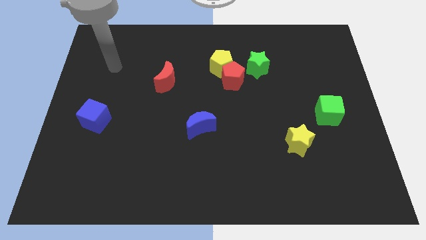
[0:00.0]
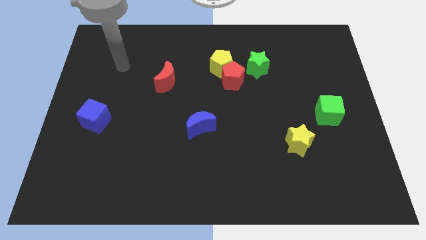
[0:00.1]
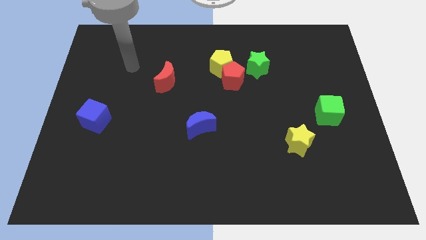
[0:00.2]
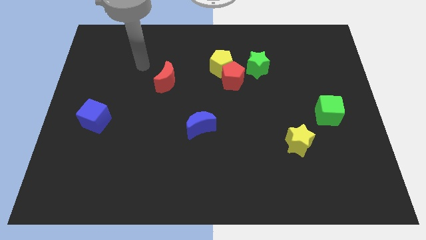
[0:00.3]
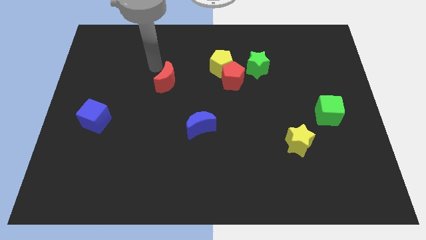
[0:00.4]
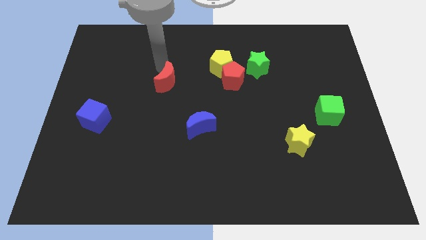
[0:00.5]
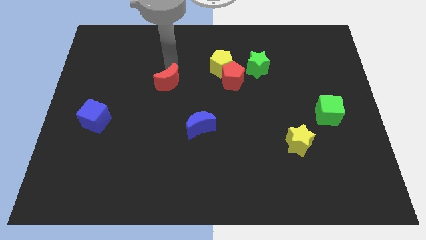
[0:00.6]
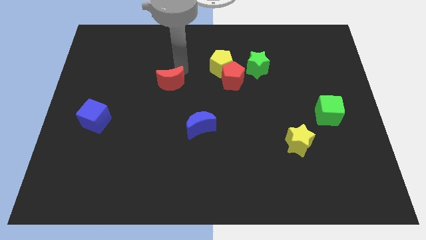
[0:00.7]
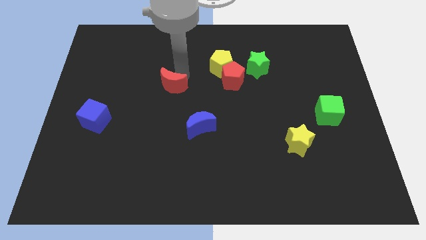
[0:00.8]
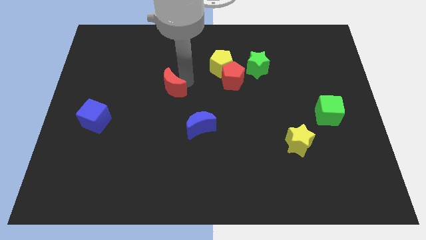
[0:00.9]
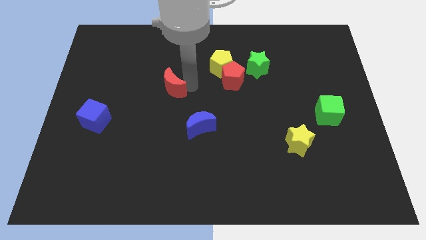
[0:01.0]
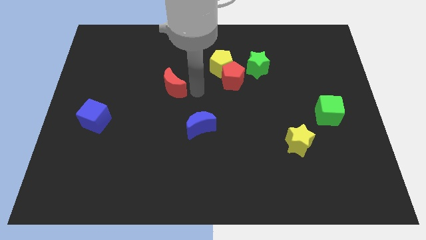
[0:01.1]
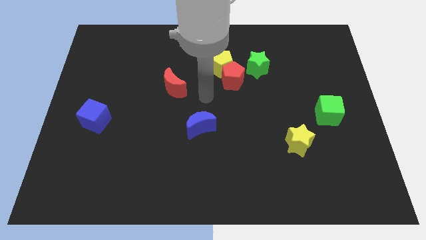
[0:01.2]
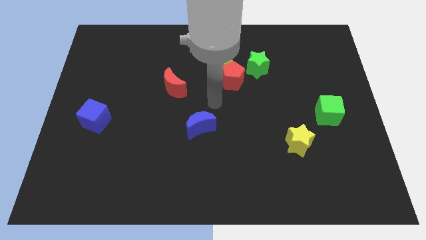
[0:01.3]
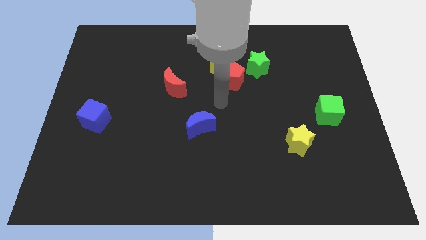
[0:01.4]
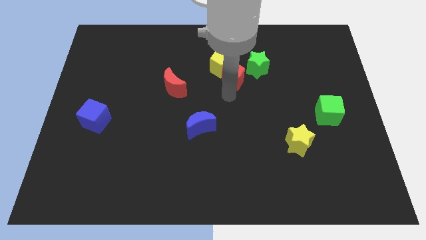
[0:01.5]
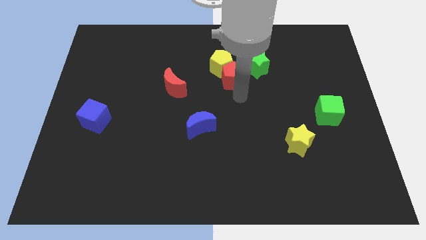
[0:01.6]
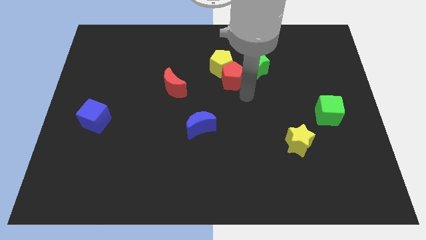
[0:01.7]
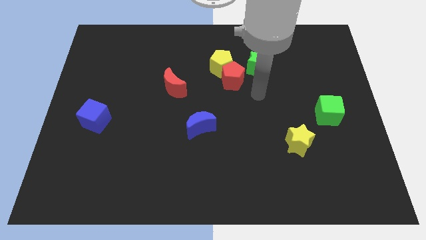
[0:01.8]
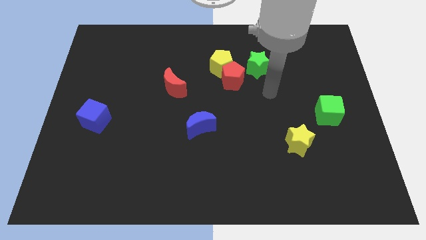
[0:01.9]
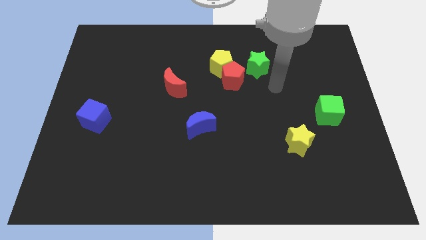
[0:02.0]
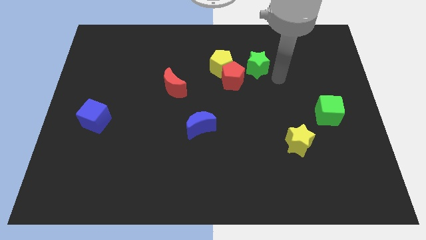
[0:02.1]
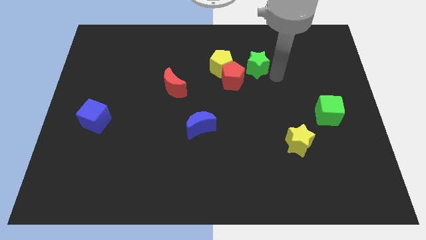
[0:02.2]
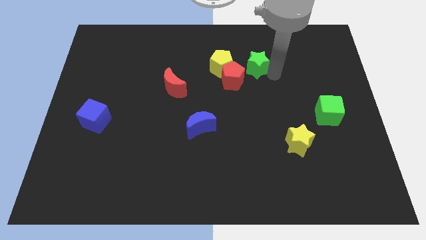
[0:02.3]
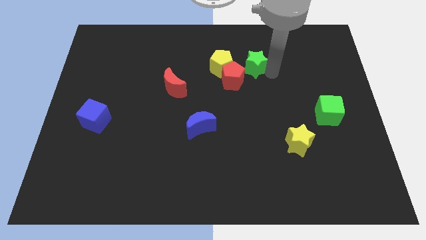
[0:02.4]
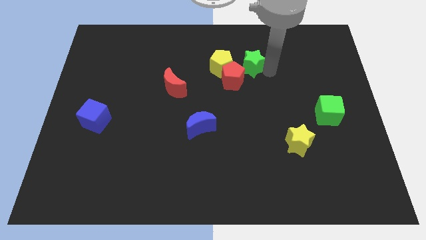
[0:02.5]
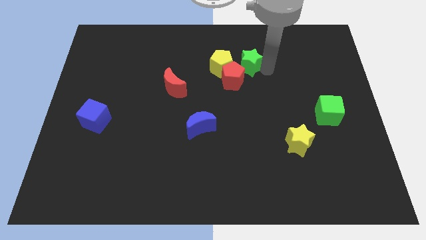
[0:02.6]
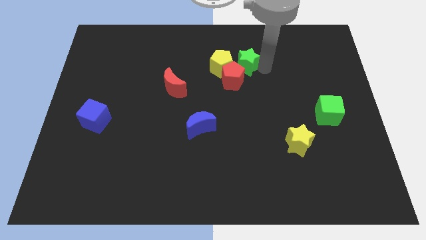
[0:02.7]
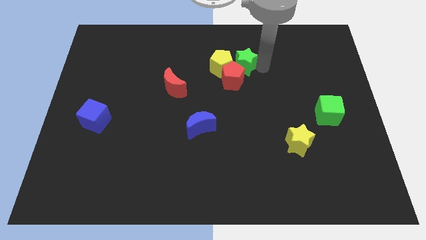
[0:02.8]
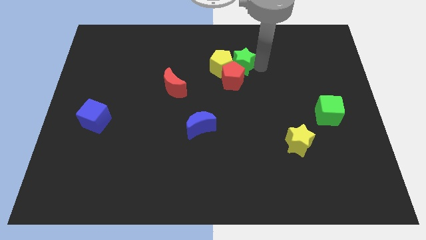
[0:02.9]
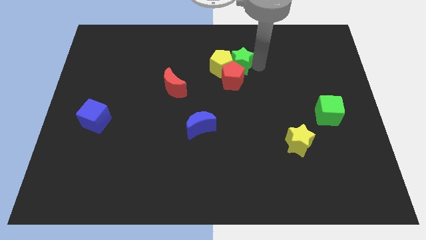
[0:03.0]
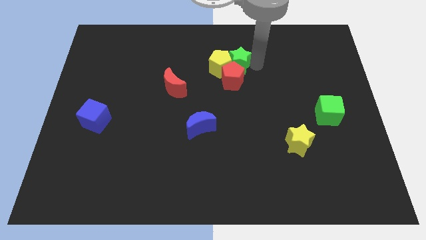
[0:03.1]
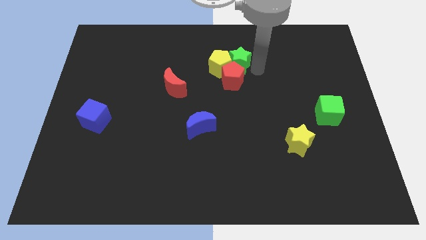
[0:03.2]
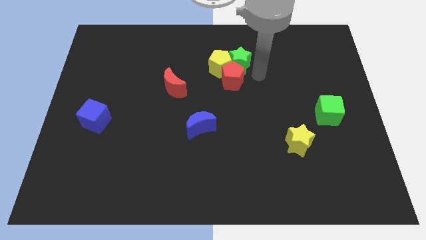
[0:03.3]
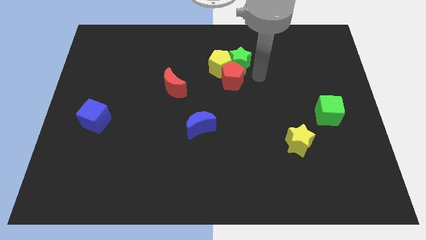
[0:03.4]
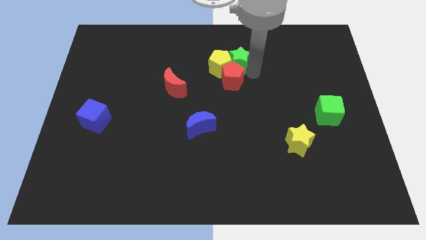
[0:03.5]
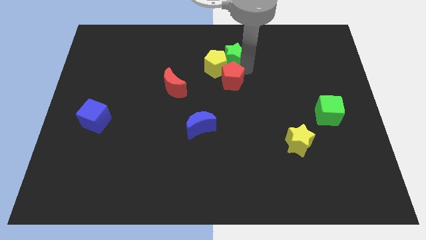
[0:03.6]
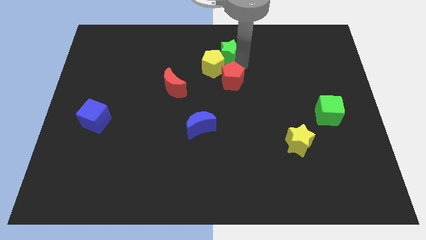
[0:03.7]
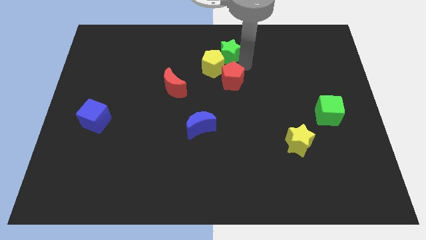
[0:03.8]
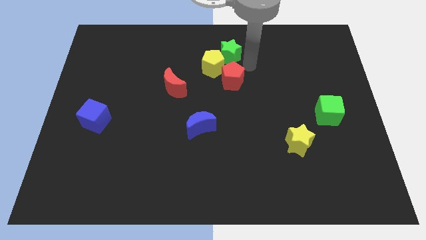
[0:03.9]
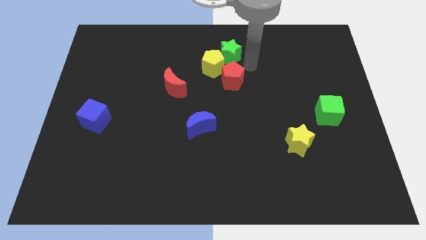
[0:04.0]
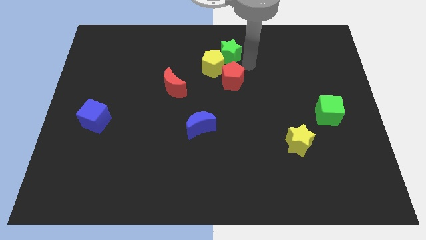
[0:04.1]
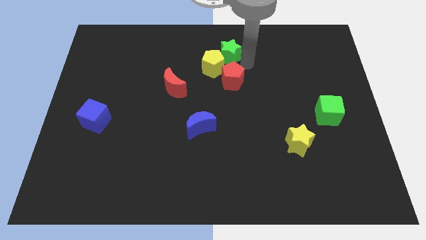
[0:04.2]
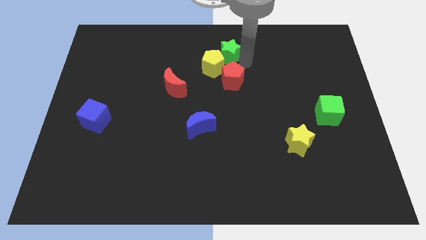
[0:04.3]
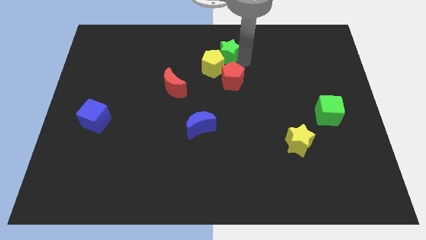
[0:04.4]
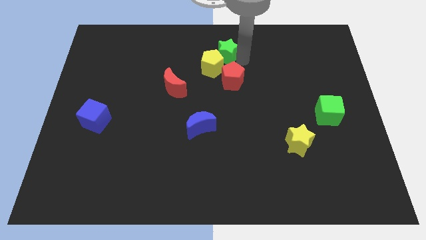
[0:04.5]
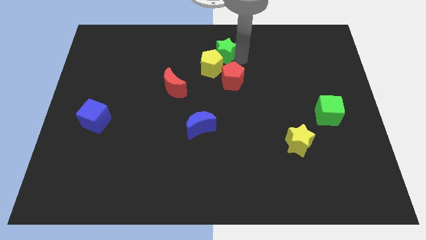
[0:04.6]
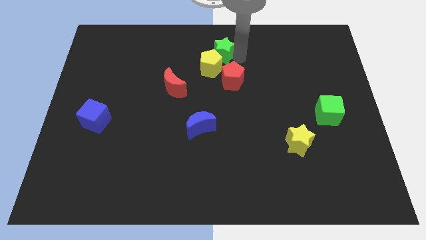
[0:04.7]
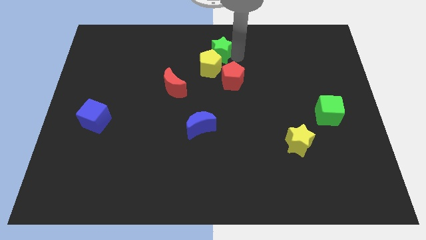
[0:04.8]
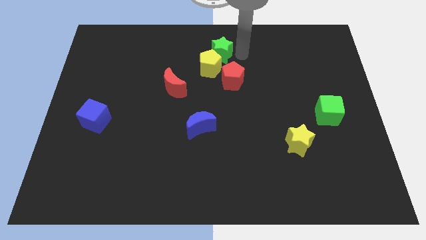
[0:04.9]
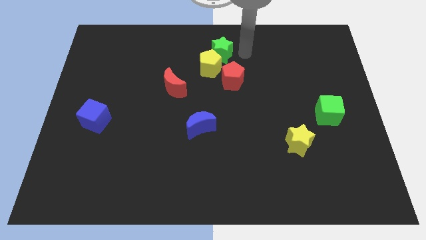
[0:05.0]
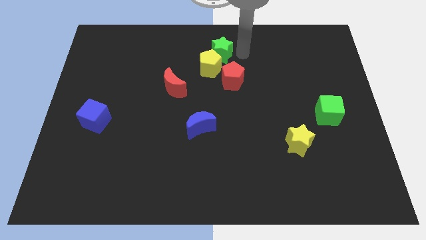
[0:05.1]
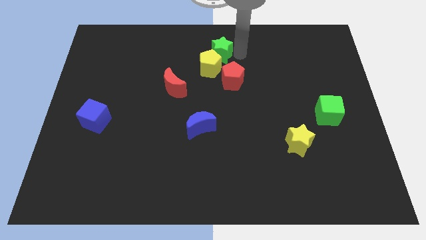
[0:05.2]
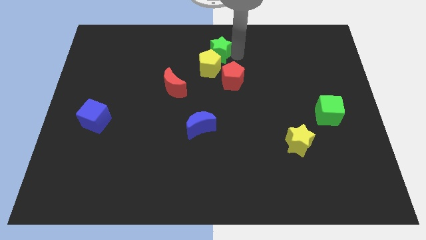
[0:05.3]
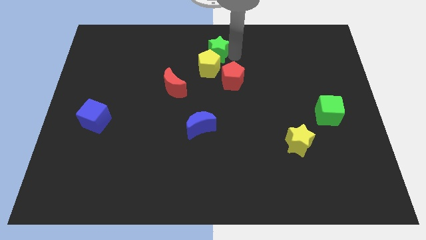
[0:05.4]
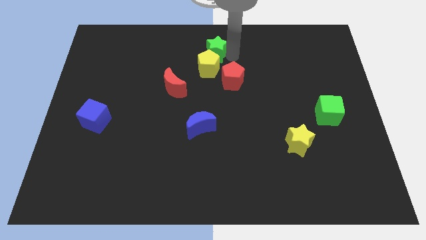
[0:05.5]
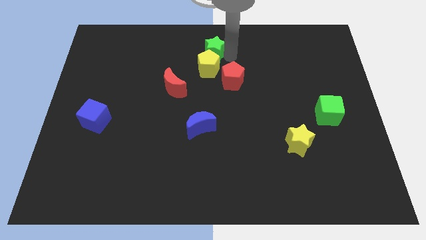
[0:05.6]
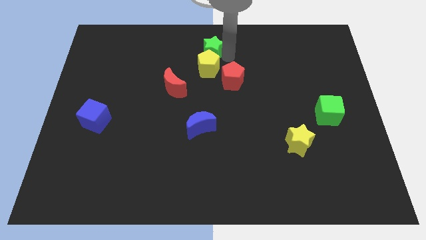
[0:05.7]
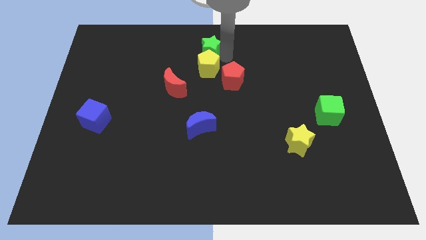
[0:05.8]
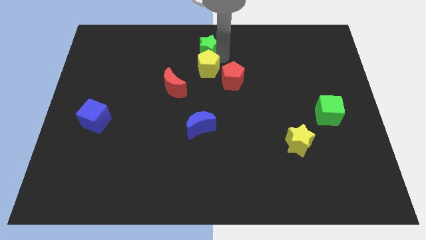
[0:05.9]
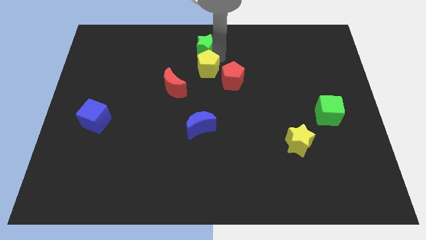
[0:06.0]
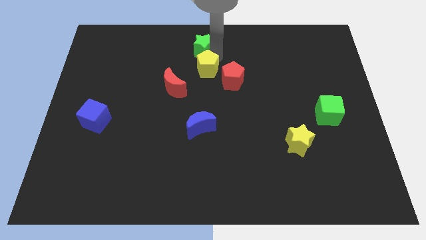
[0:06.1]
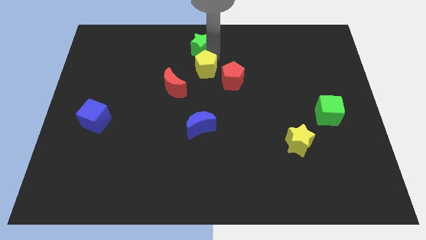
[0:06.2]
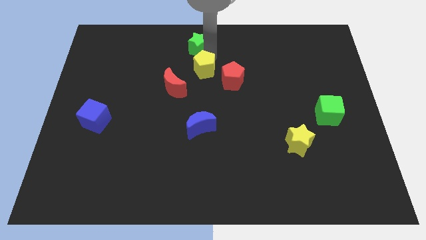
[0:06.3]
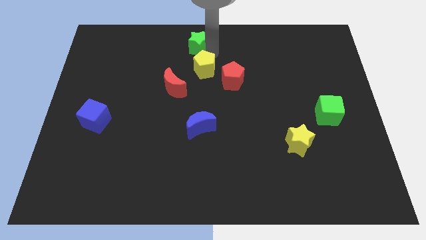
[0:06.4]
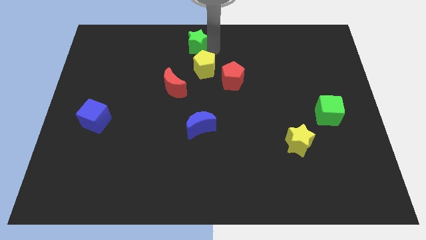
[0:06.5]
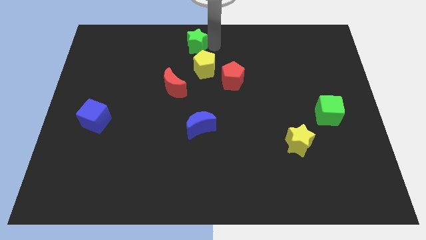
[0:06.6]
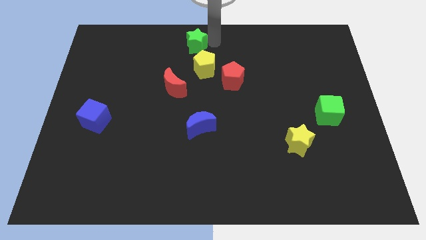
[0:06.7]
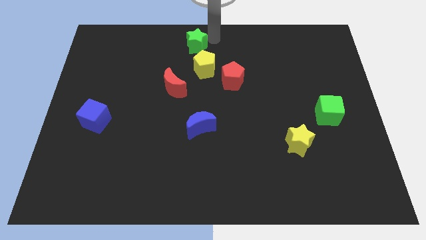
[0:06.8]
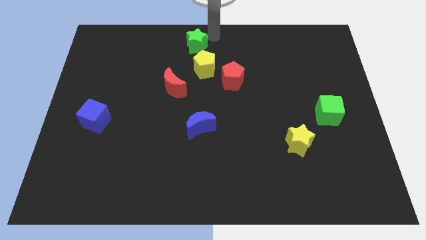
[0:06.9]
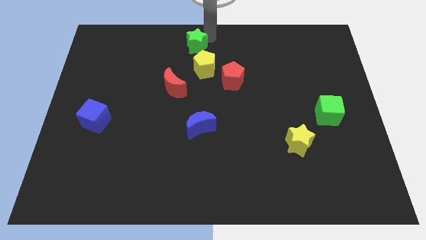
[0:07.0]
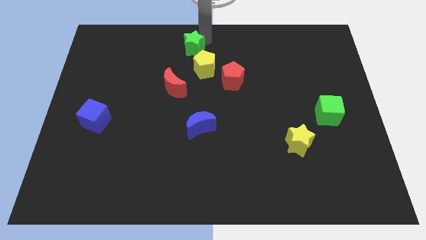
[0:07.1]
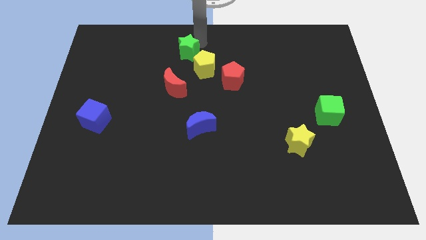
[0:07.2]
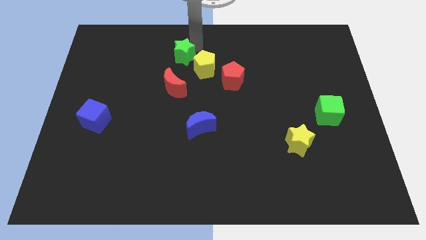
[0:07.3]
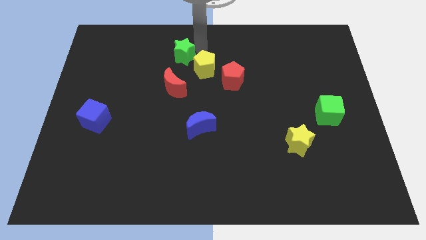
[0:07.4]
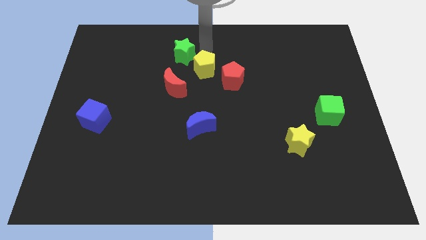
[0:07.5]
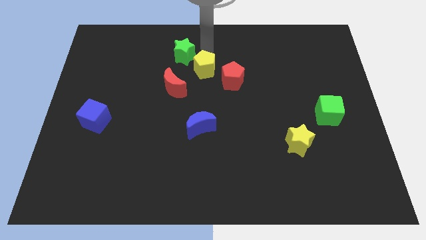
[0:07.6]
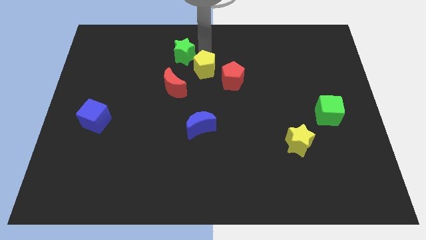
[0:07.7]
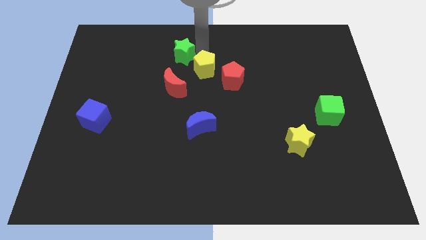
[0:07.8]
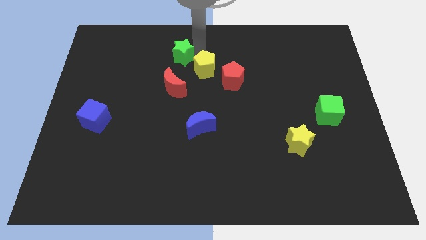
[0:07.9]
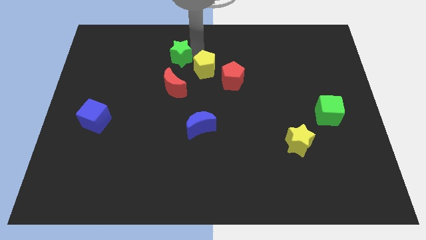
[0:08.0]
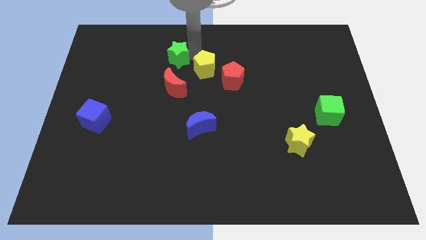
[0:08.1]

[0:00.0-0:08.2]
push the green star left
